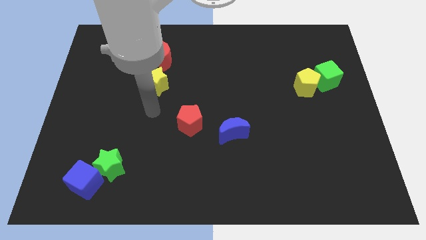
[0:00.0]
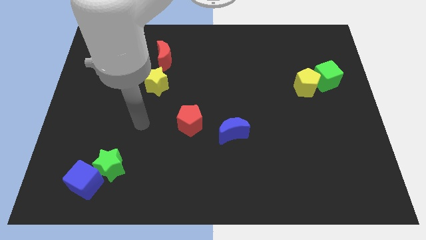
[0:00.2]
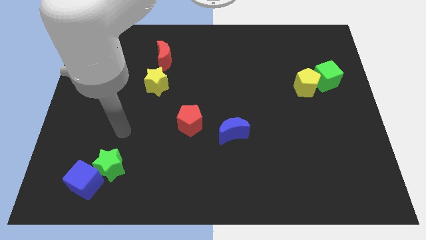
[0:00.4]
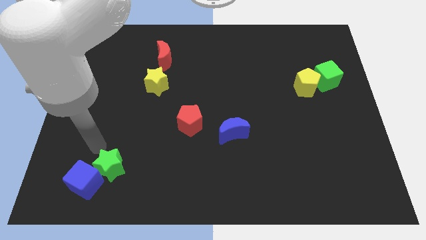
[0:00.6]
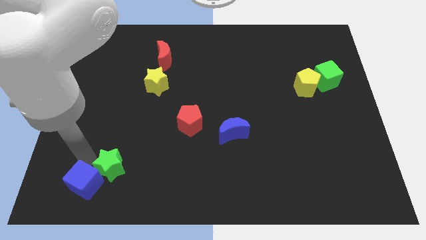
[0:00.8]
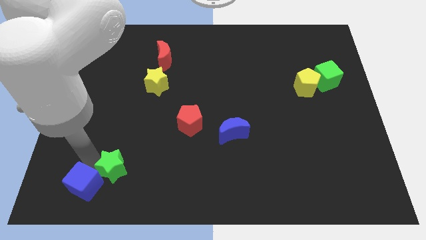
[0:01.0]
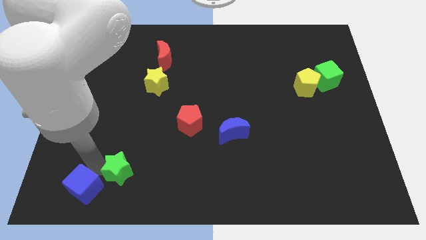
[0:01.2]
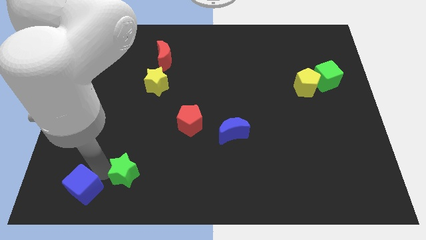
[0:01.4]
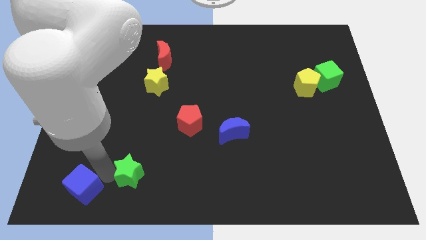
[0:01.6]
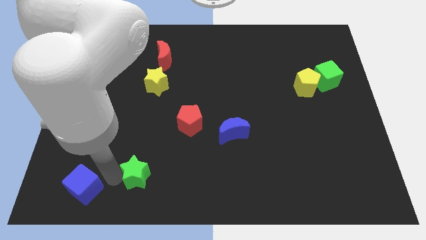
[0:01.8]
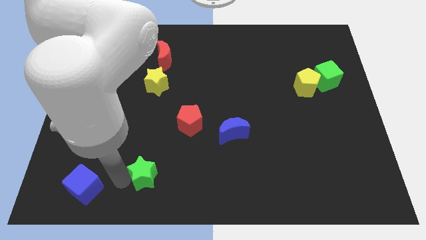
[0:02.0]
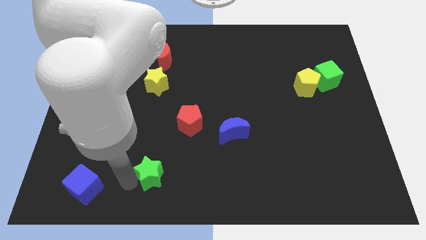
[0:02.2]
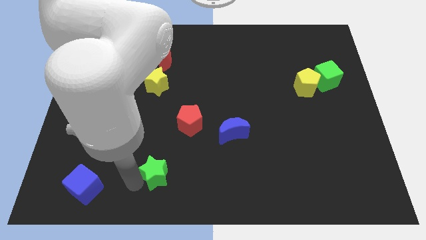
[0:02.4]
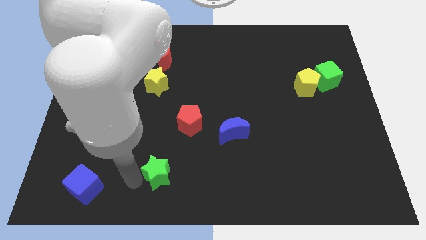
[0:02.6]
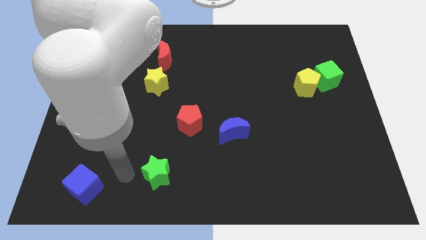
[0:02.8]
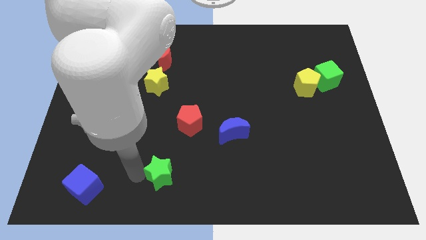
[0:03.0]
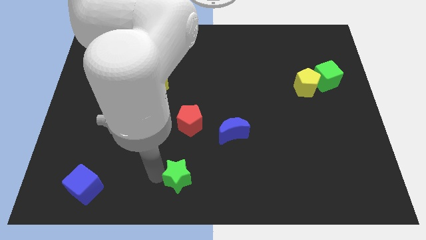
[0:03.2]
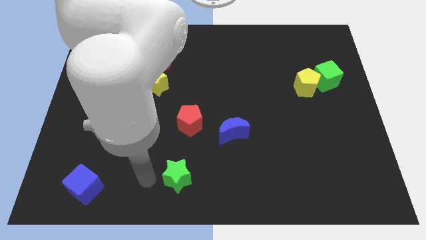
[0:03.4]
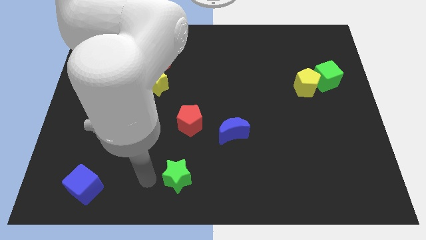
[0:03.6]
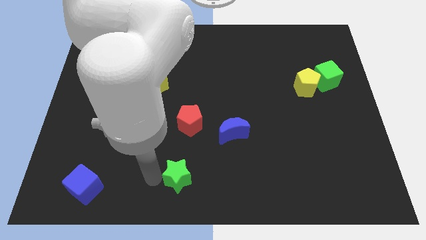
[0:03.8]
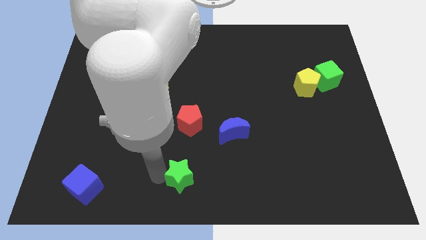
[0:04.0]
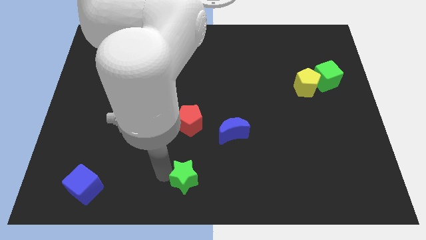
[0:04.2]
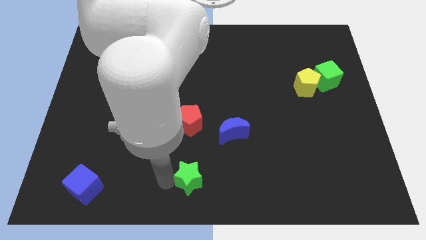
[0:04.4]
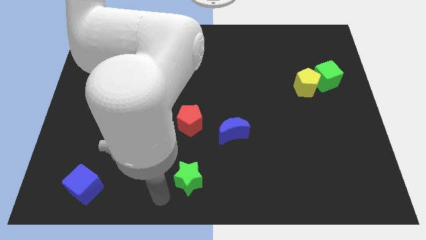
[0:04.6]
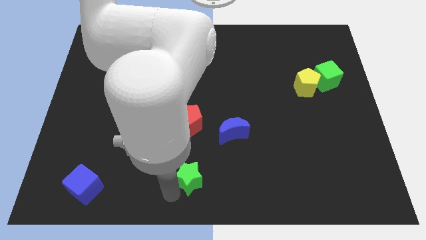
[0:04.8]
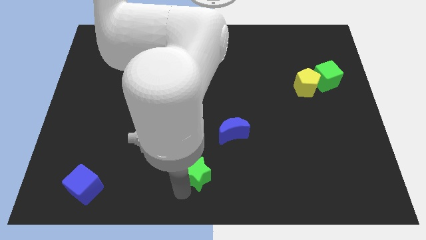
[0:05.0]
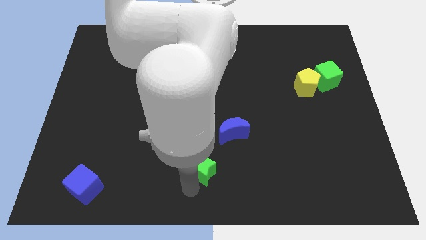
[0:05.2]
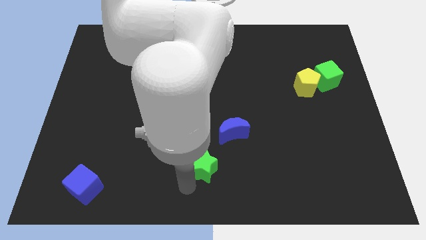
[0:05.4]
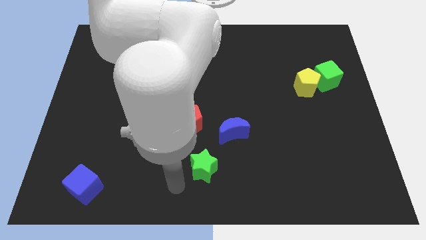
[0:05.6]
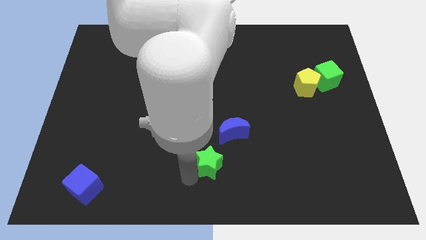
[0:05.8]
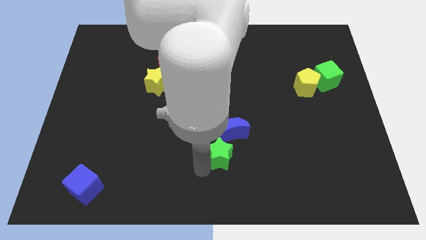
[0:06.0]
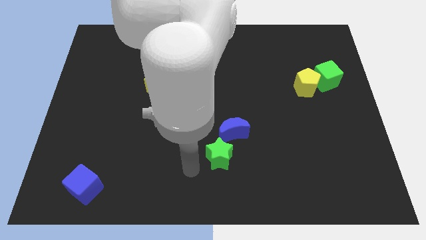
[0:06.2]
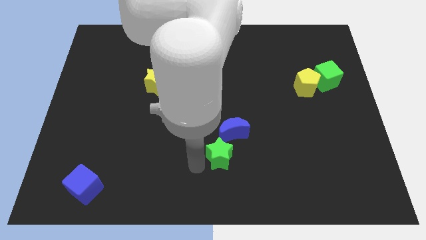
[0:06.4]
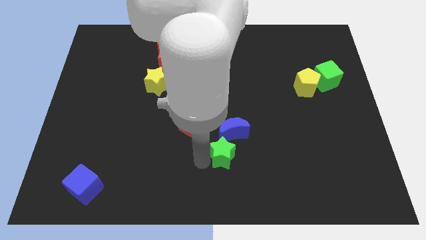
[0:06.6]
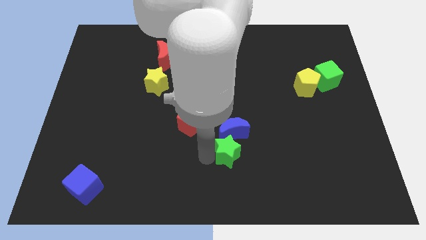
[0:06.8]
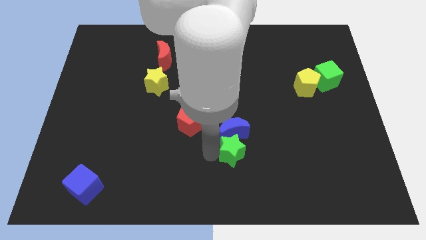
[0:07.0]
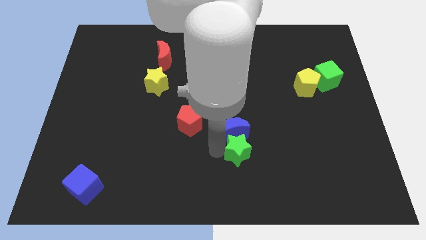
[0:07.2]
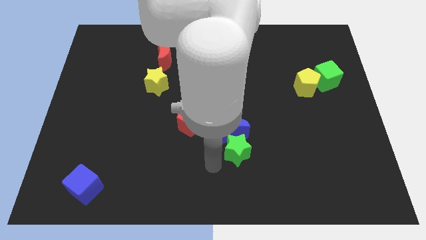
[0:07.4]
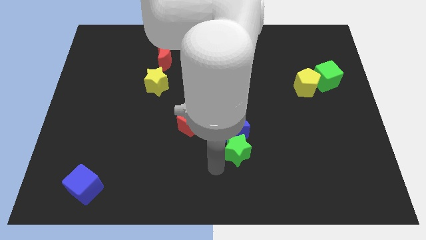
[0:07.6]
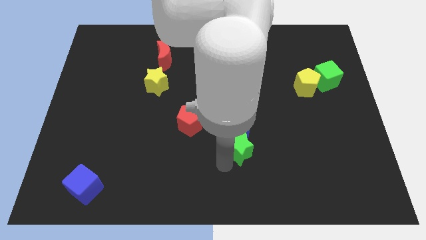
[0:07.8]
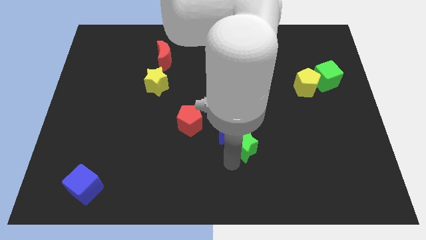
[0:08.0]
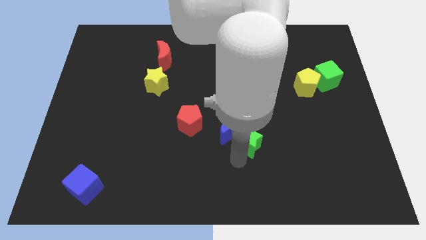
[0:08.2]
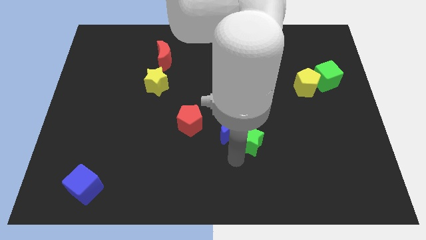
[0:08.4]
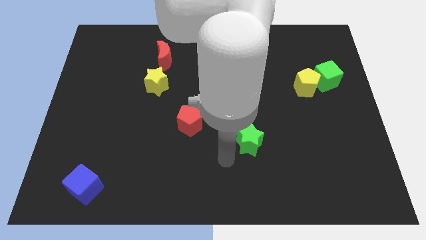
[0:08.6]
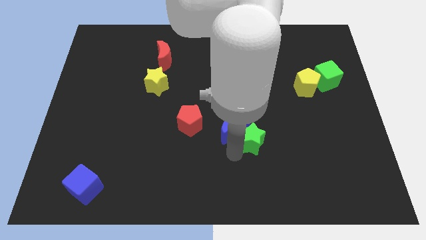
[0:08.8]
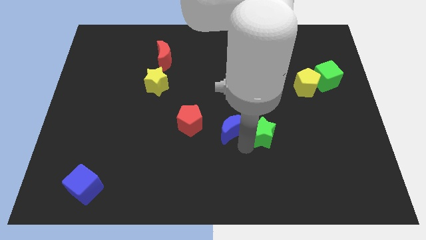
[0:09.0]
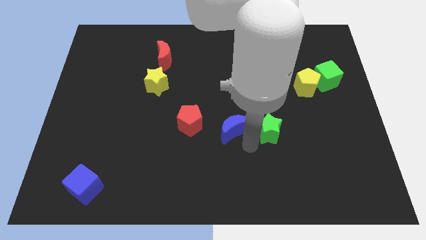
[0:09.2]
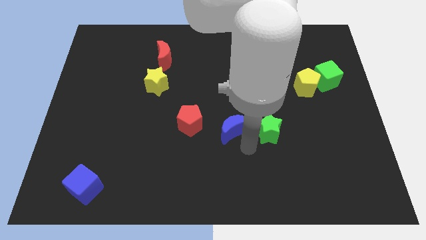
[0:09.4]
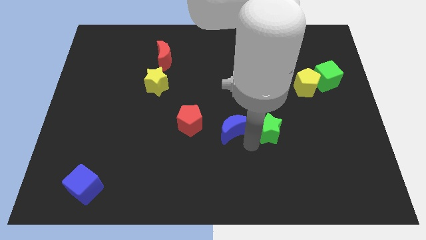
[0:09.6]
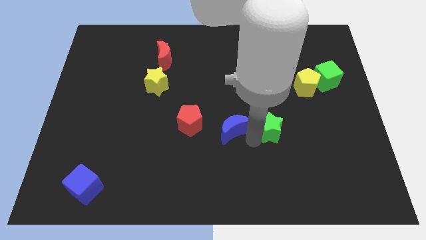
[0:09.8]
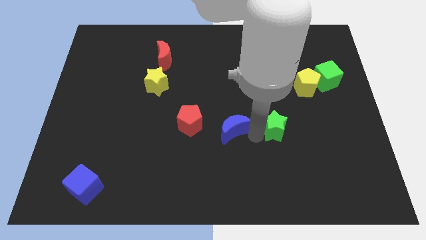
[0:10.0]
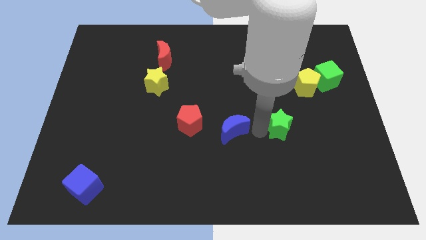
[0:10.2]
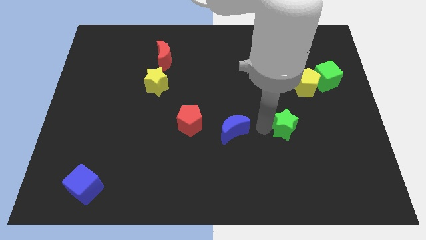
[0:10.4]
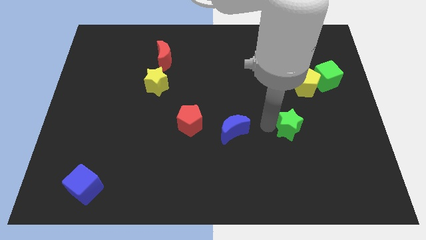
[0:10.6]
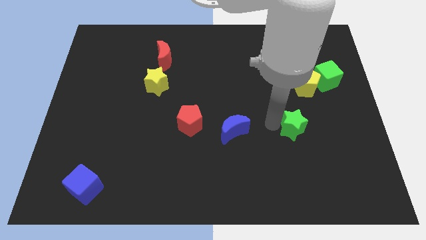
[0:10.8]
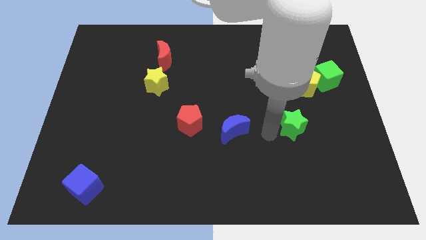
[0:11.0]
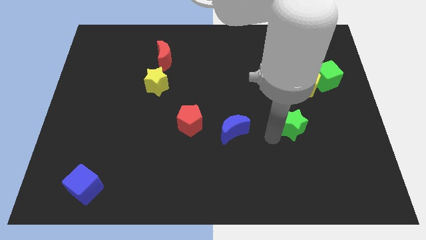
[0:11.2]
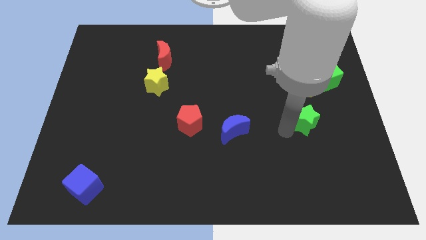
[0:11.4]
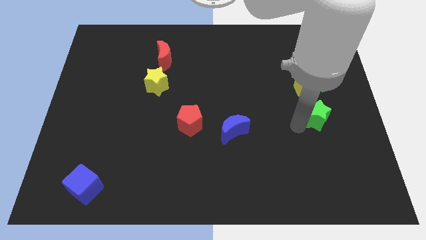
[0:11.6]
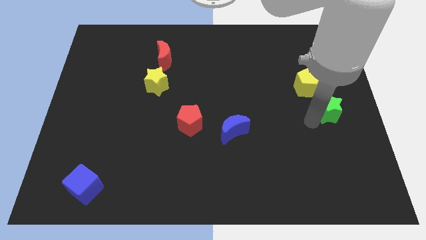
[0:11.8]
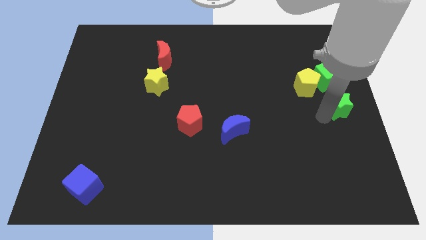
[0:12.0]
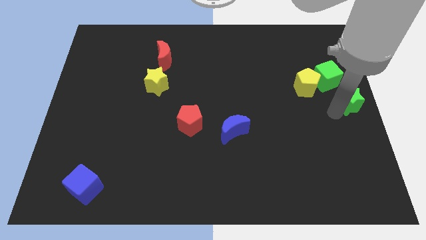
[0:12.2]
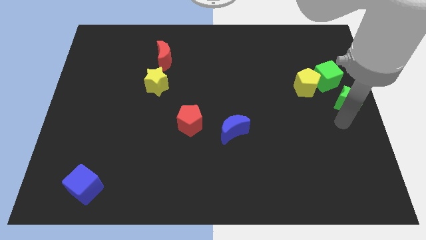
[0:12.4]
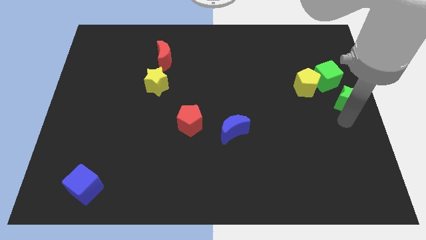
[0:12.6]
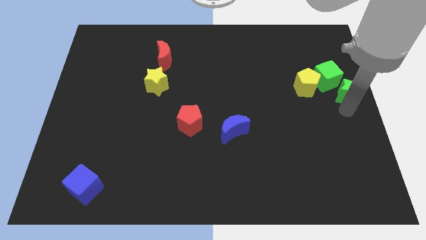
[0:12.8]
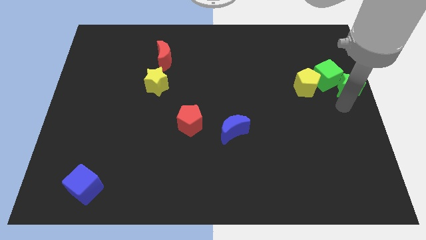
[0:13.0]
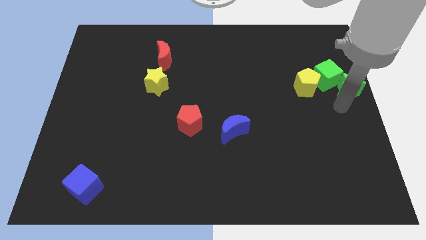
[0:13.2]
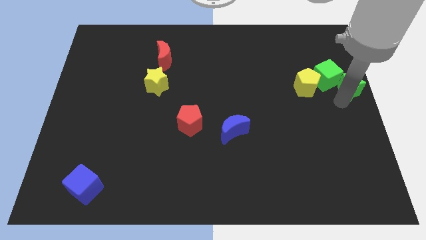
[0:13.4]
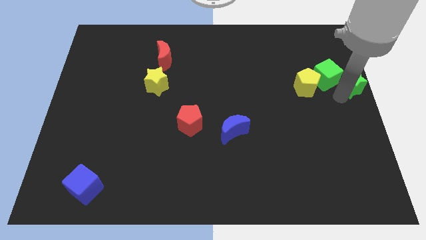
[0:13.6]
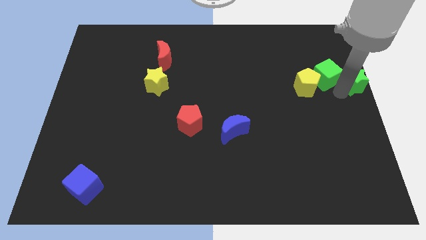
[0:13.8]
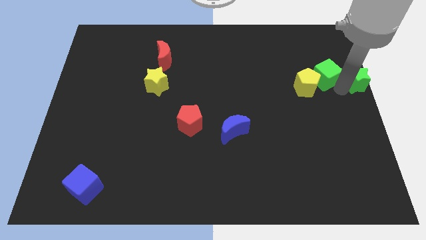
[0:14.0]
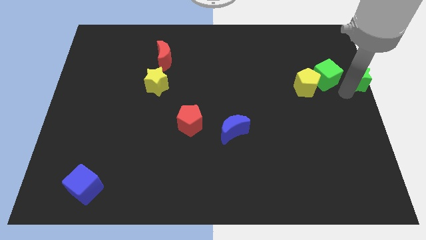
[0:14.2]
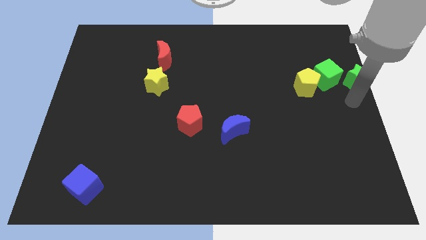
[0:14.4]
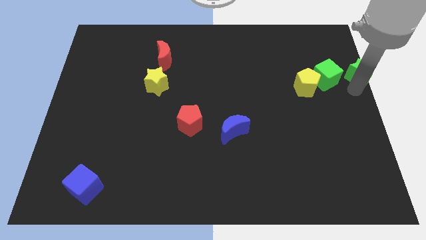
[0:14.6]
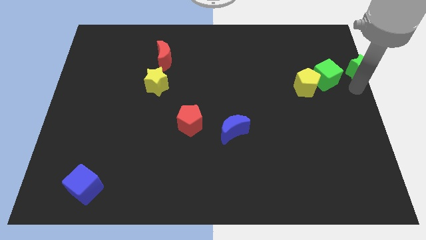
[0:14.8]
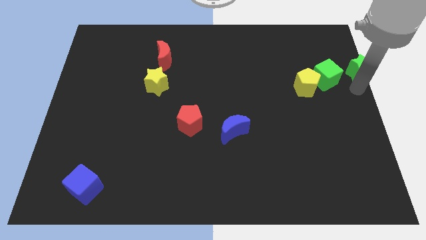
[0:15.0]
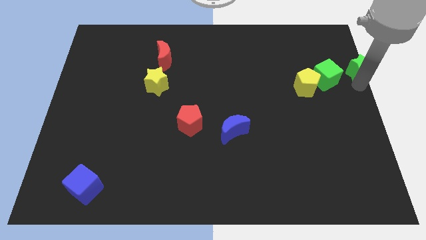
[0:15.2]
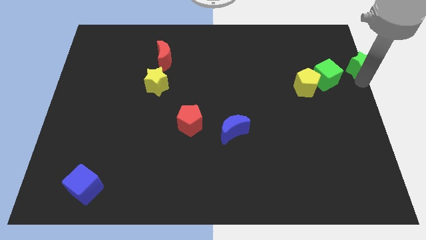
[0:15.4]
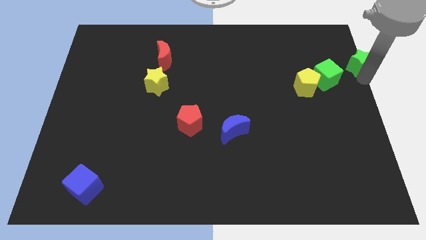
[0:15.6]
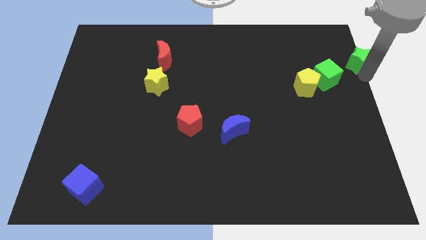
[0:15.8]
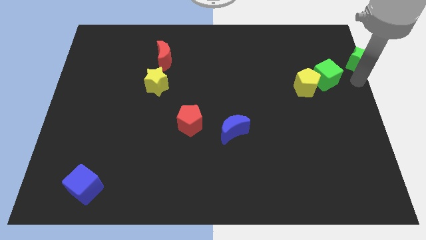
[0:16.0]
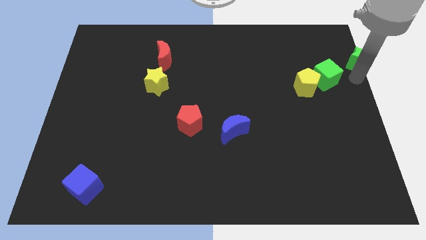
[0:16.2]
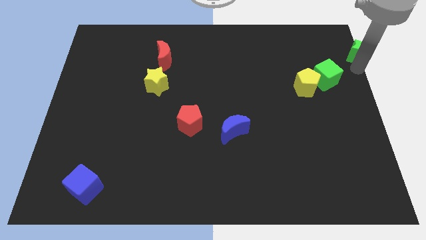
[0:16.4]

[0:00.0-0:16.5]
move the green star to the top right
